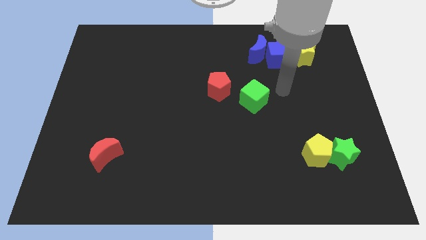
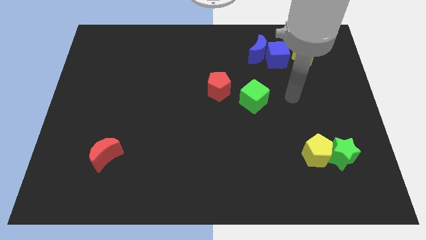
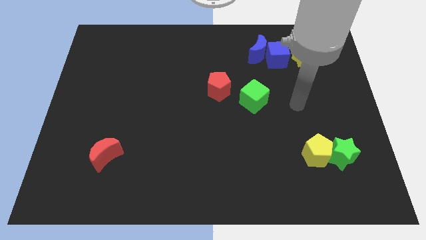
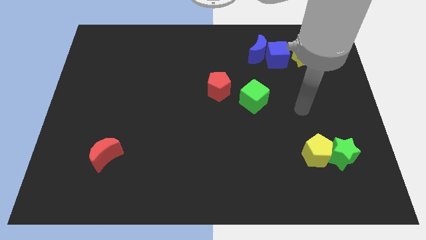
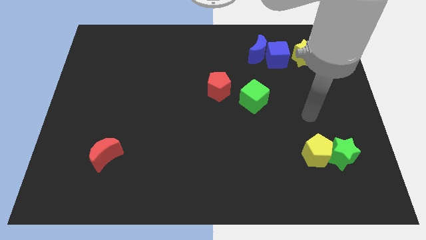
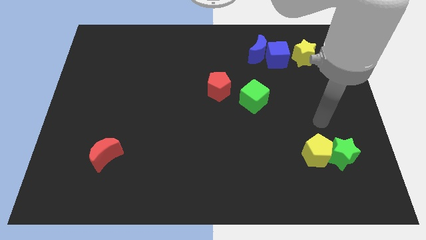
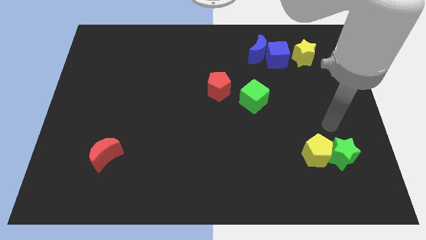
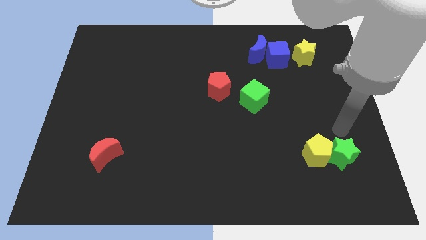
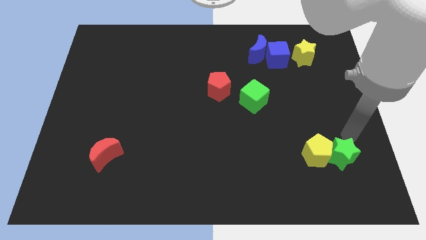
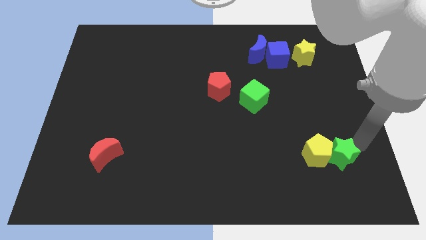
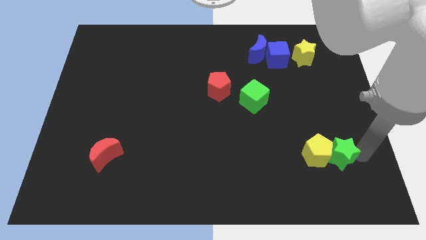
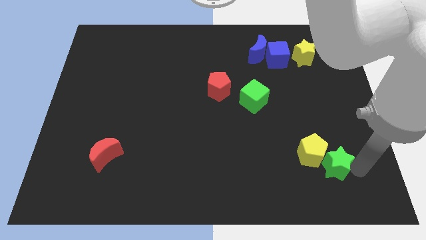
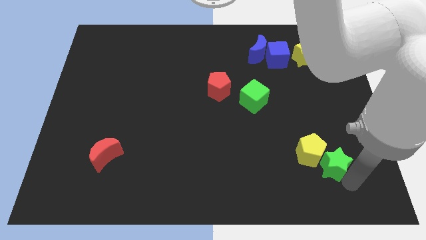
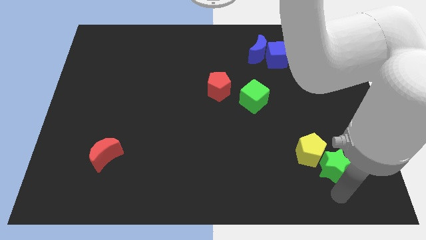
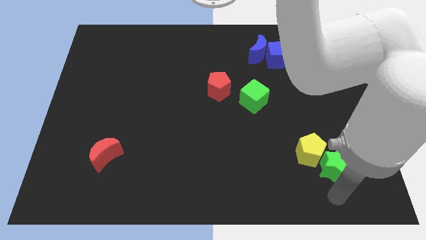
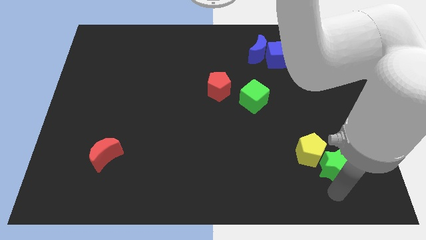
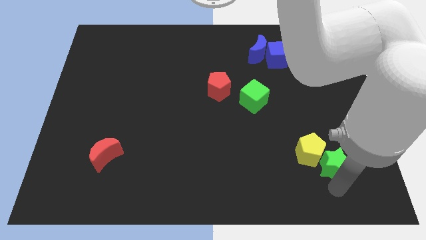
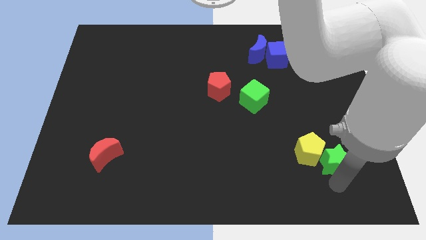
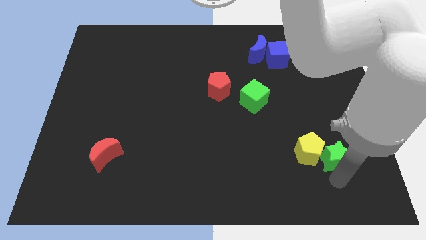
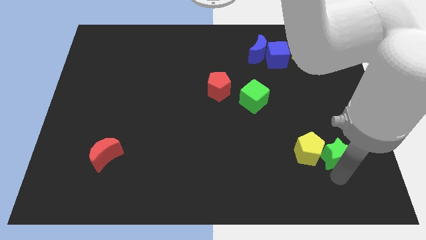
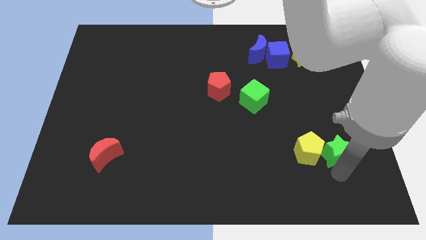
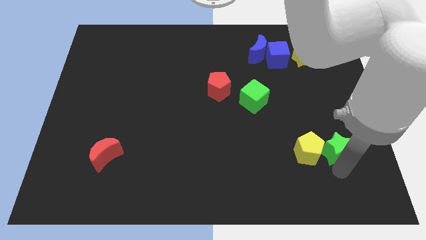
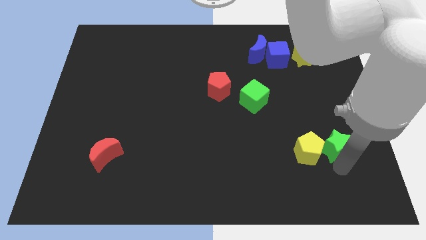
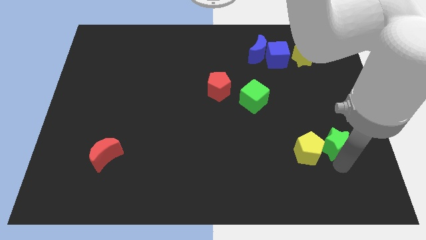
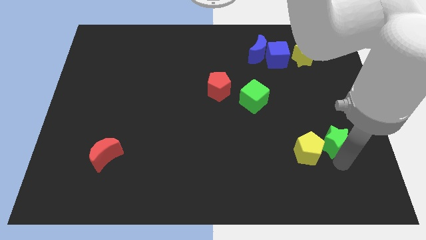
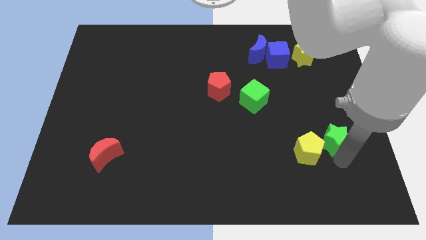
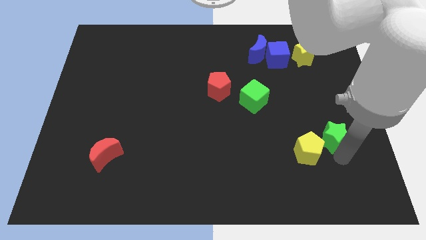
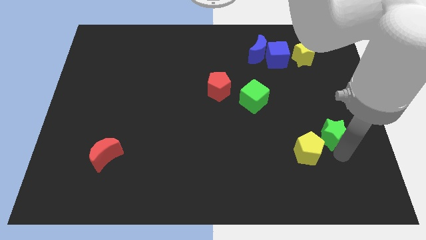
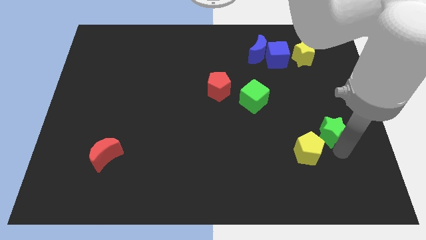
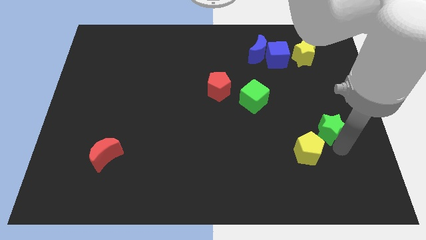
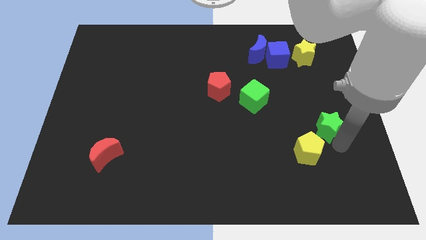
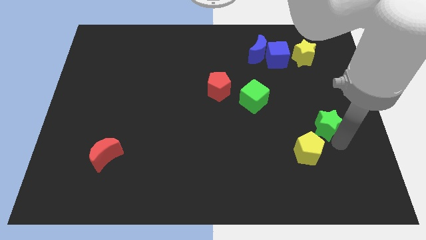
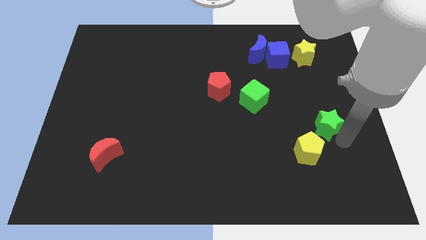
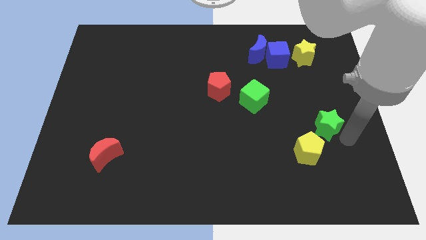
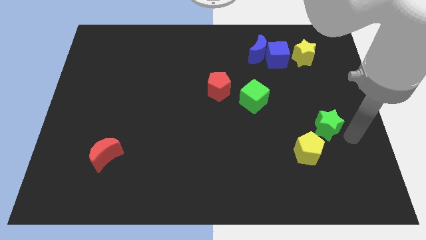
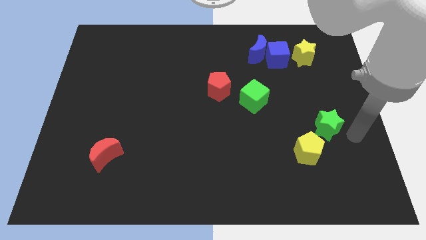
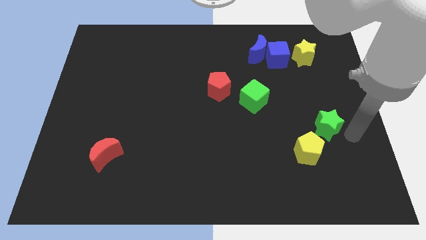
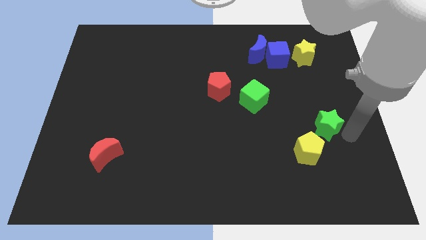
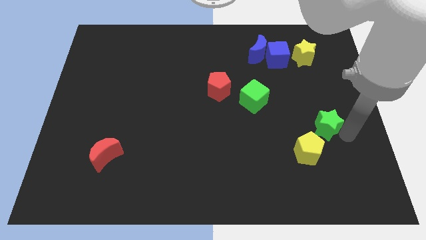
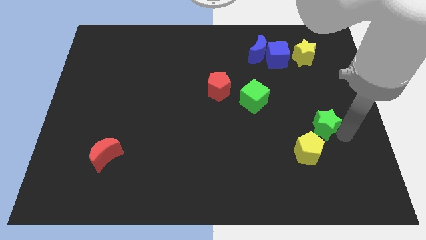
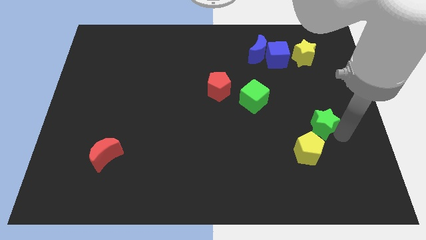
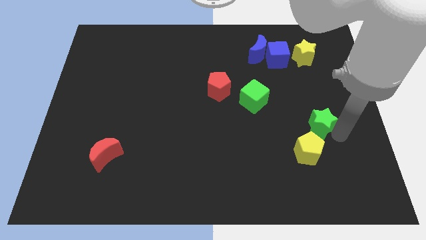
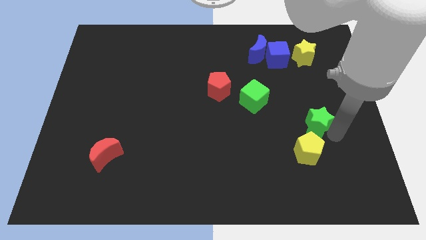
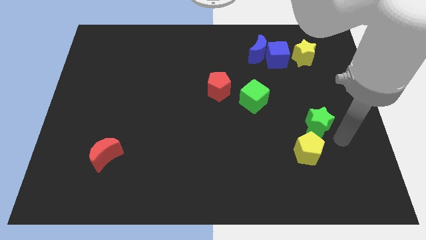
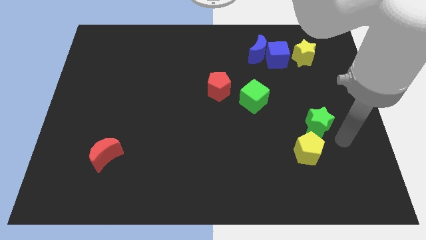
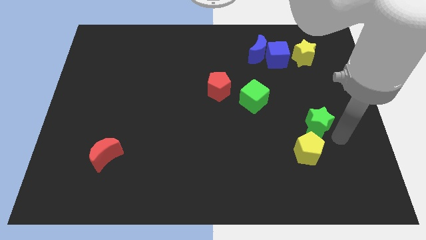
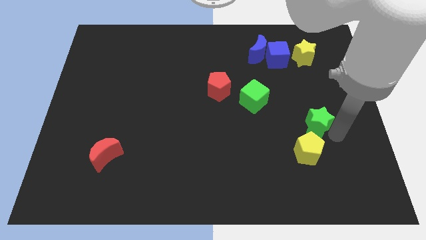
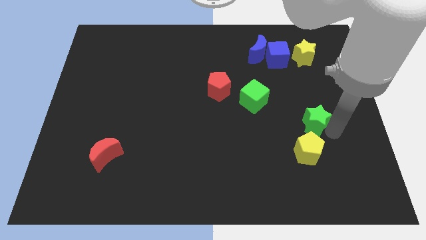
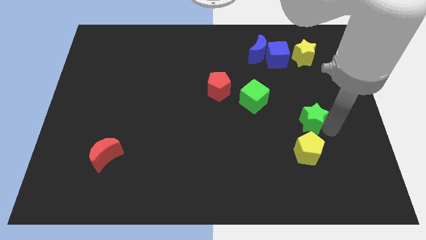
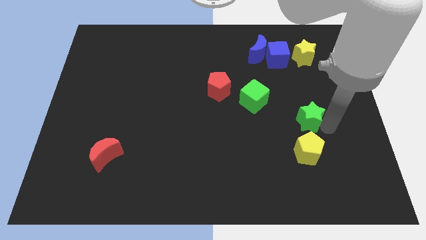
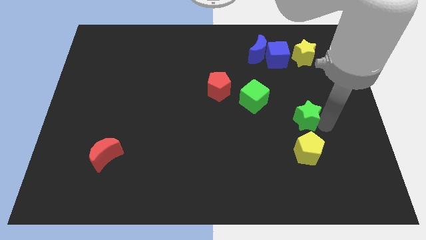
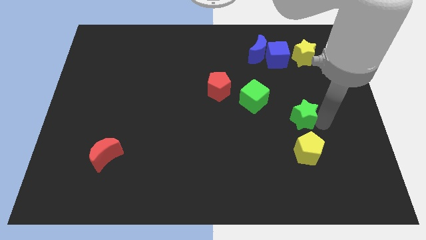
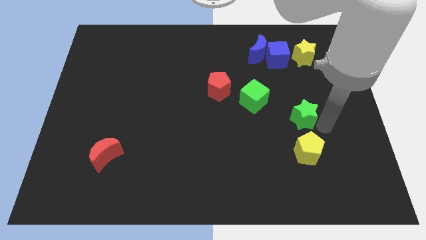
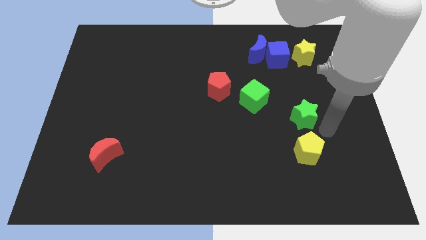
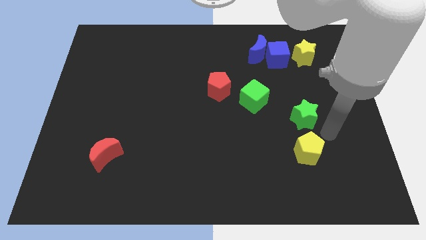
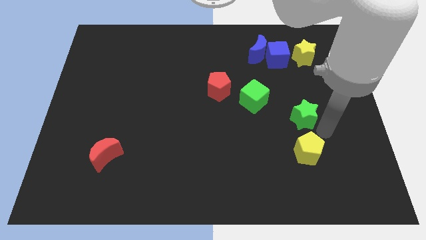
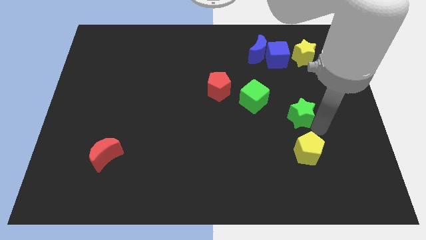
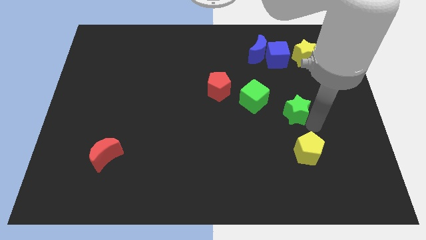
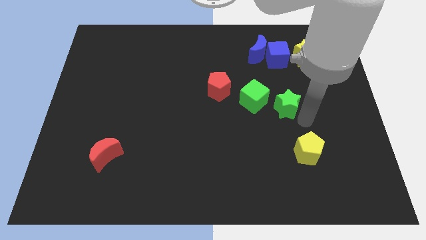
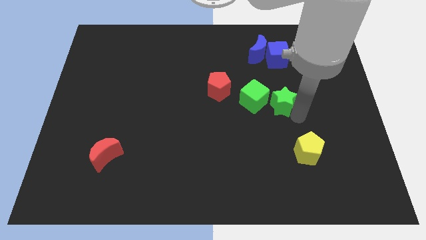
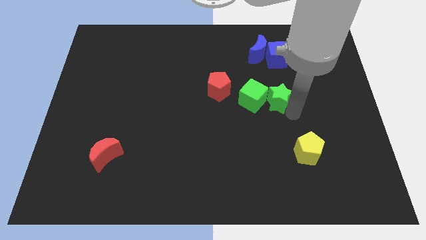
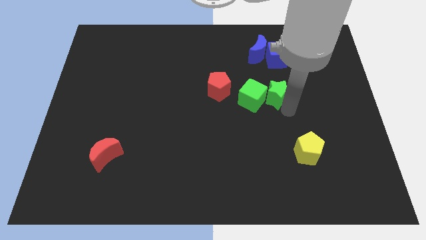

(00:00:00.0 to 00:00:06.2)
put the green star below the blue moon

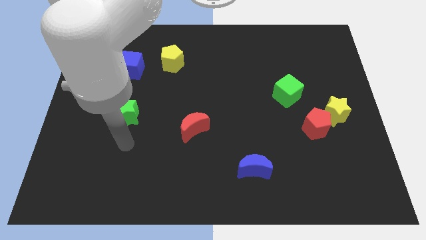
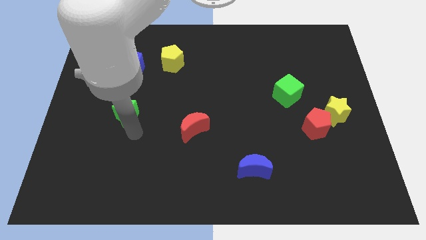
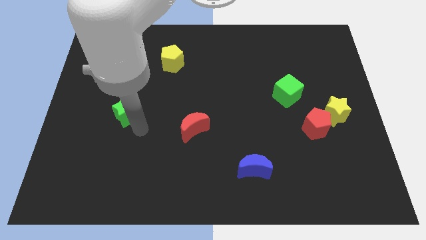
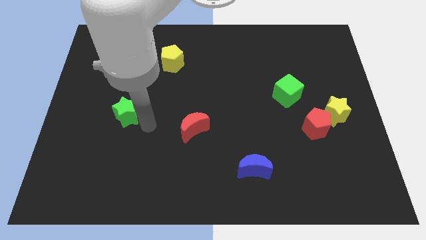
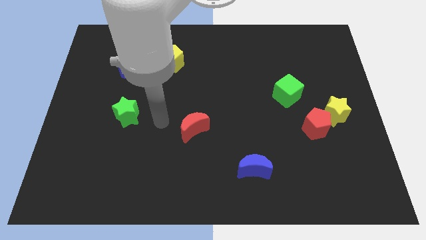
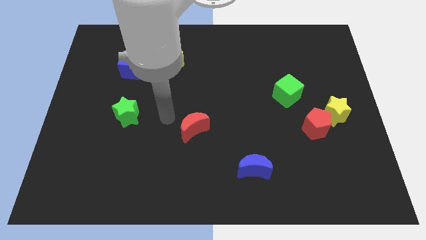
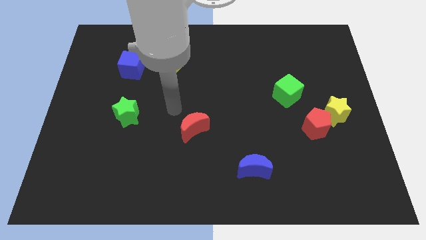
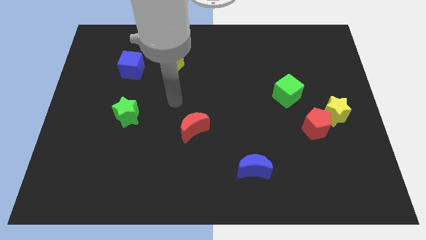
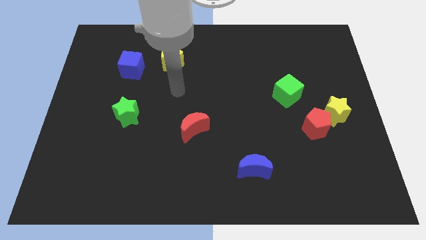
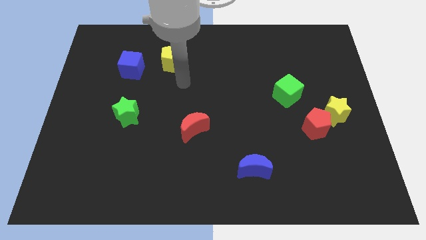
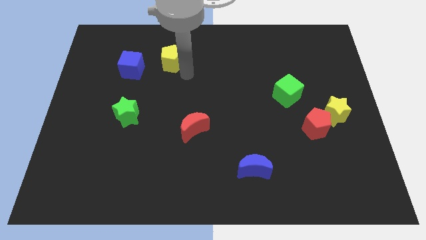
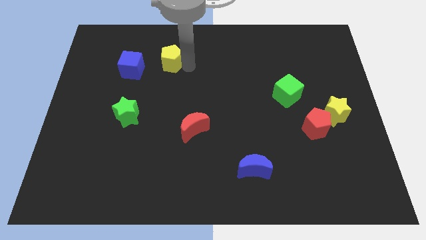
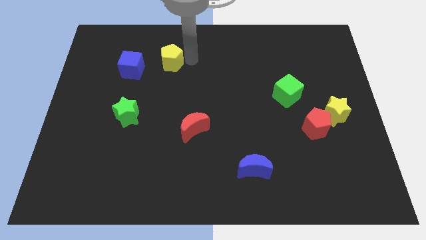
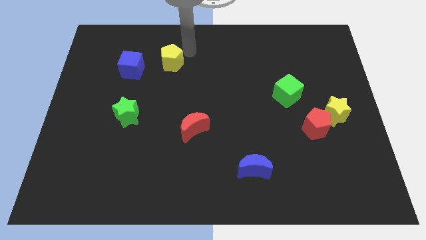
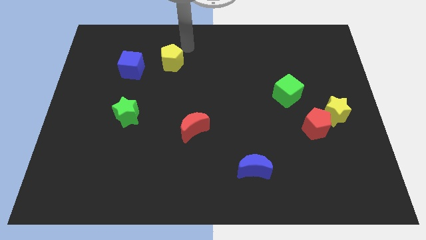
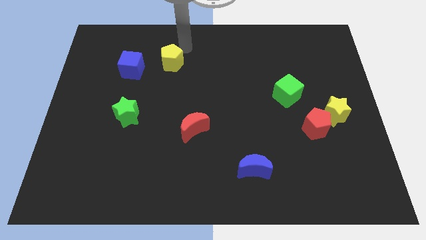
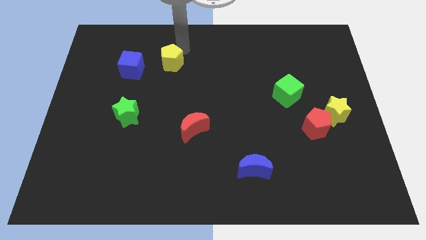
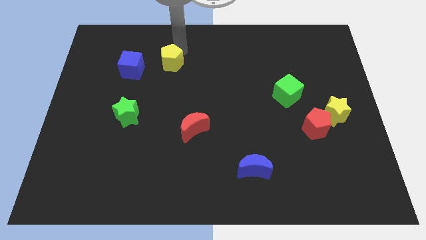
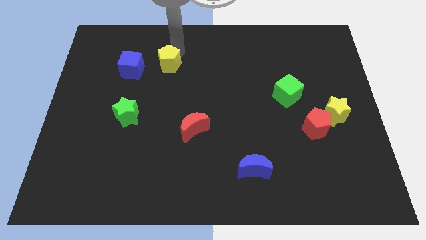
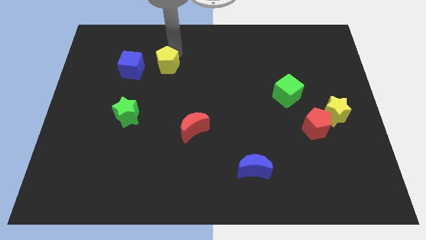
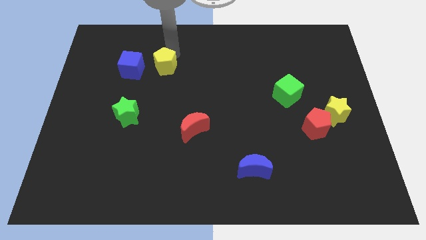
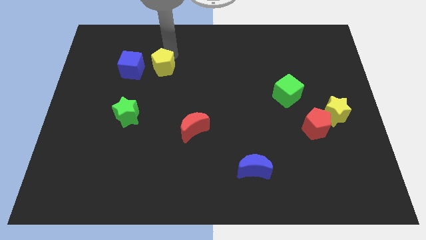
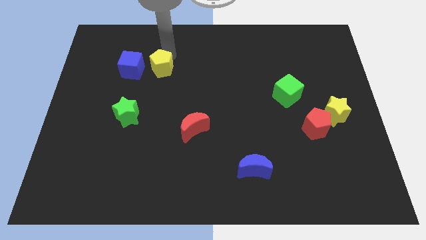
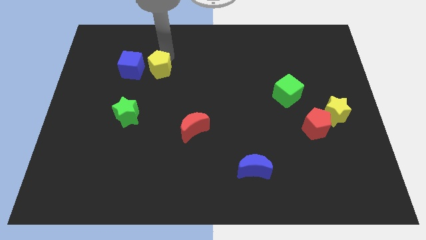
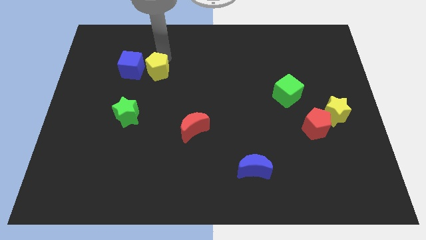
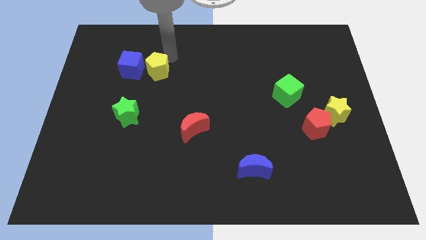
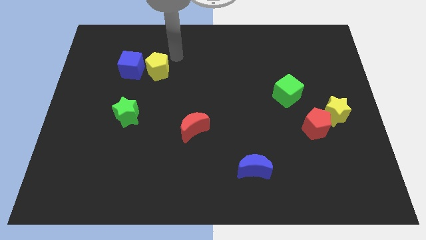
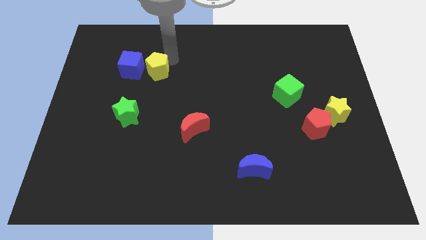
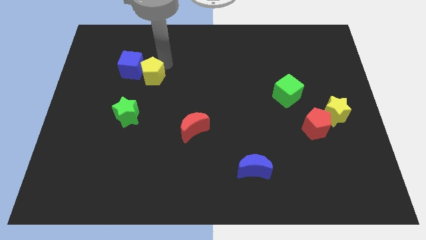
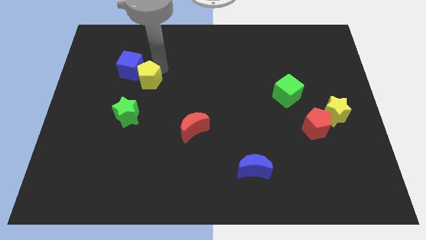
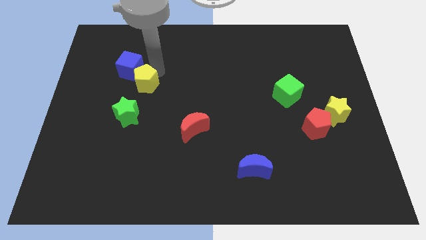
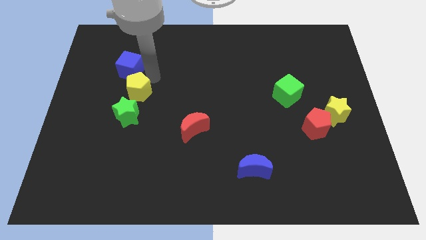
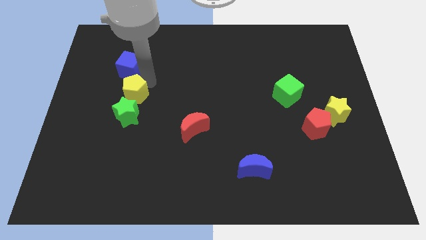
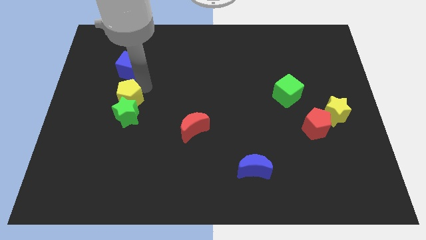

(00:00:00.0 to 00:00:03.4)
put the yellow pentagon to the top left side of the green star
